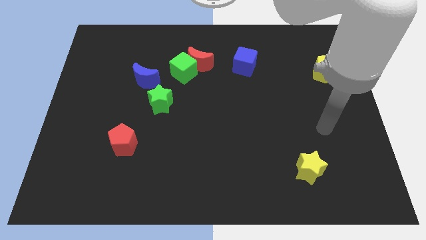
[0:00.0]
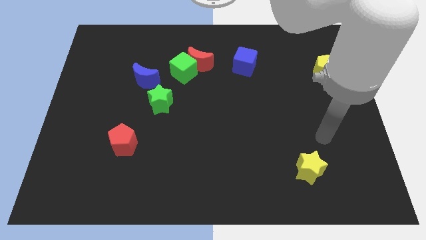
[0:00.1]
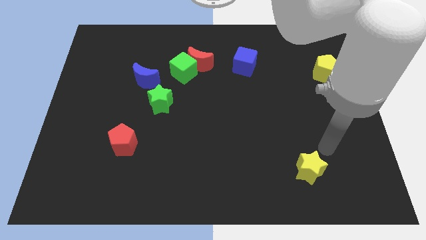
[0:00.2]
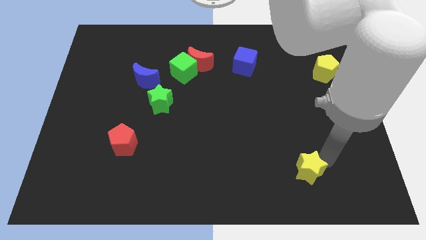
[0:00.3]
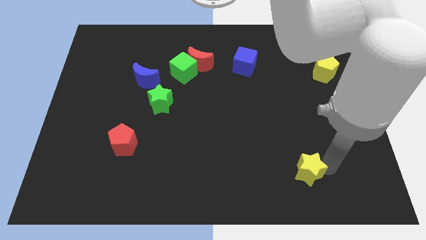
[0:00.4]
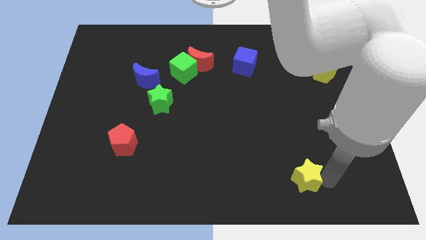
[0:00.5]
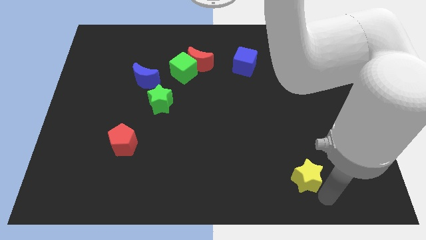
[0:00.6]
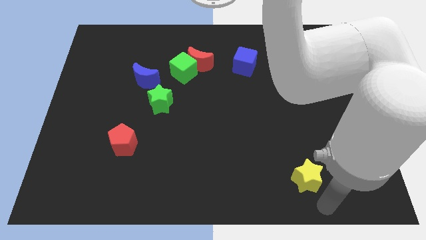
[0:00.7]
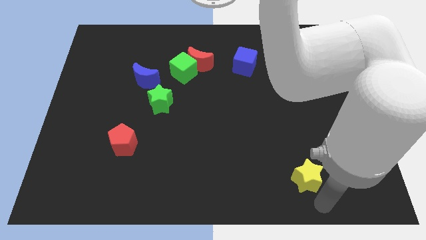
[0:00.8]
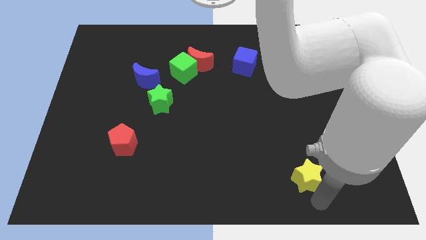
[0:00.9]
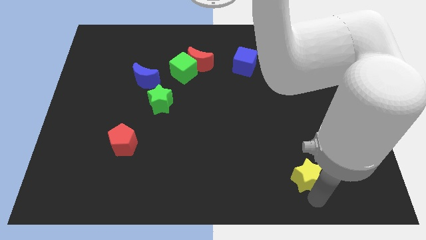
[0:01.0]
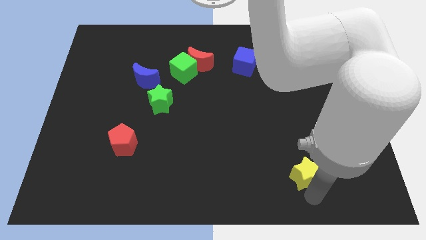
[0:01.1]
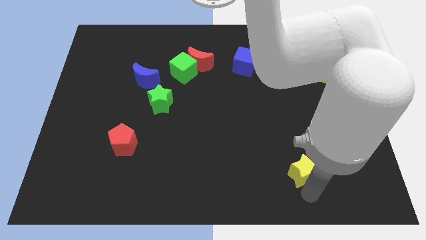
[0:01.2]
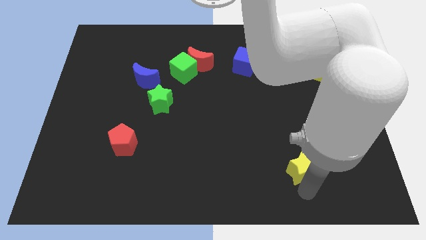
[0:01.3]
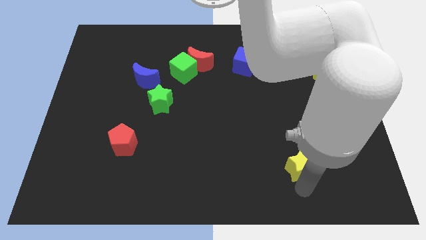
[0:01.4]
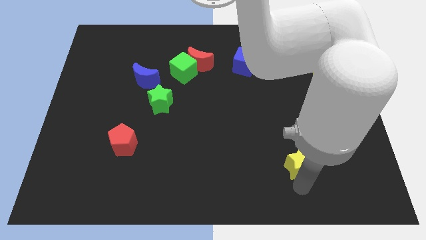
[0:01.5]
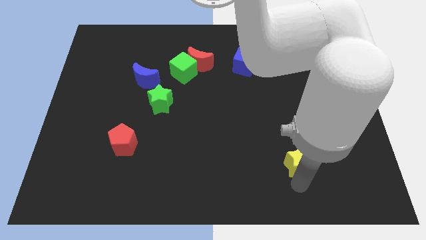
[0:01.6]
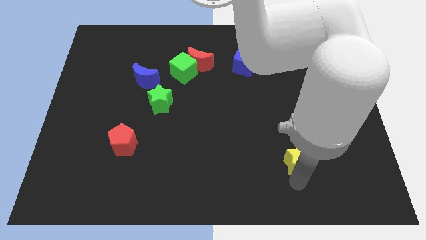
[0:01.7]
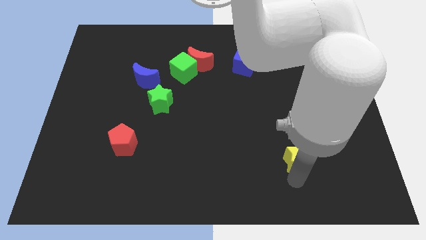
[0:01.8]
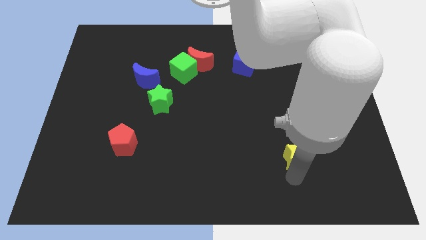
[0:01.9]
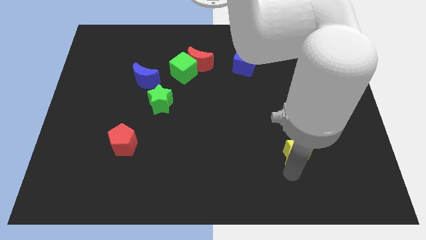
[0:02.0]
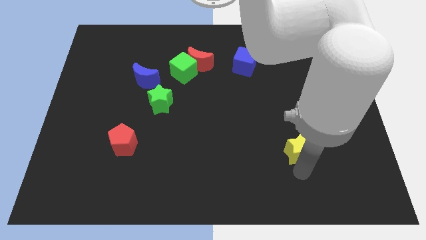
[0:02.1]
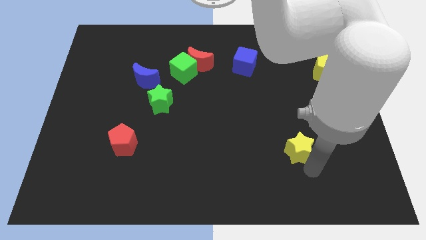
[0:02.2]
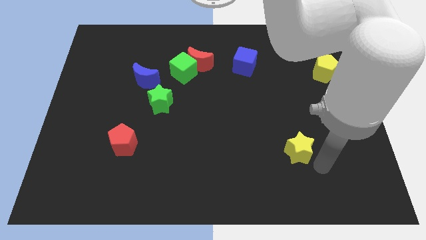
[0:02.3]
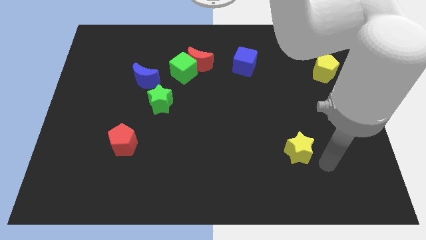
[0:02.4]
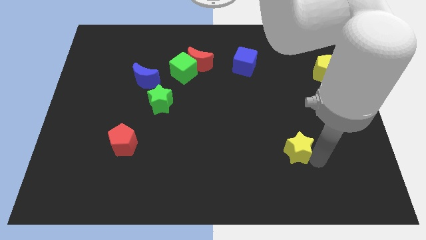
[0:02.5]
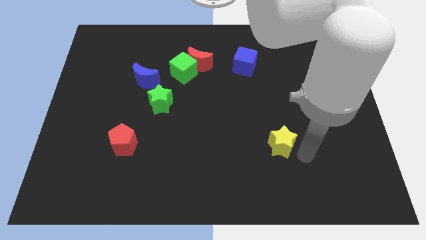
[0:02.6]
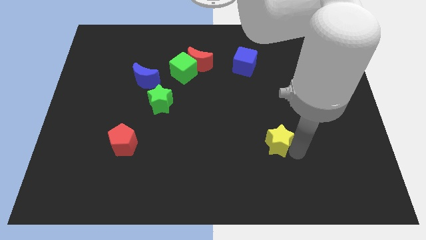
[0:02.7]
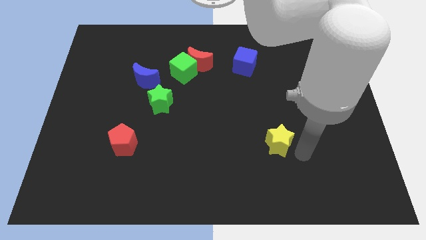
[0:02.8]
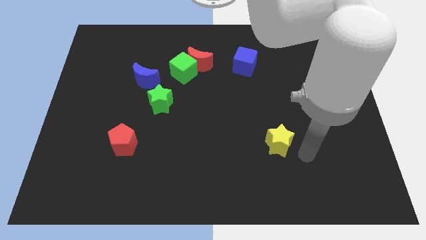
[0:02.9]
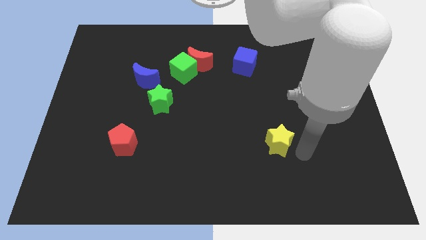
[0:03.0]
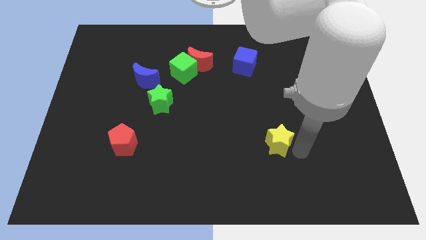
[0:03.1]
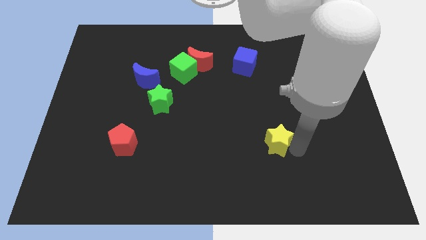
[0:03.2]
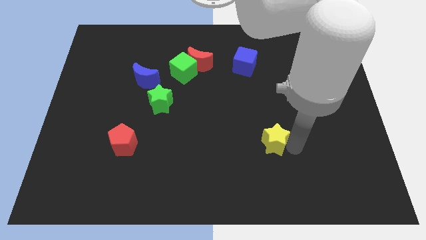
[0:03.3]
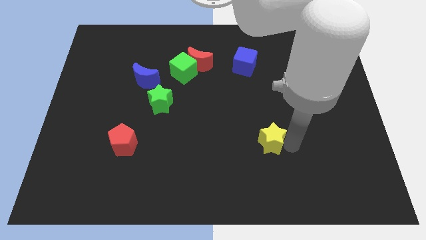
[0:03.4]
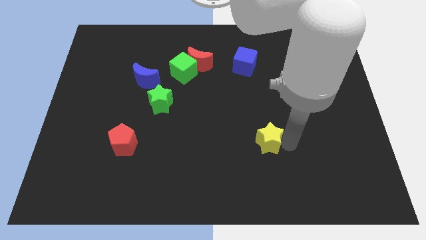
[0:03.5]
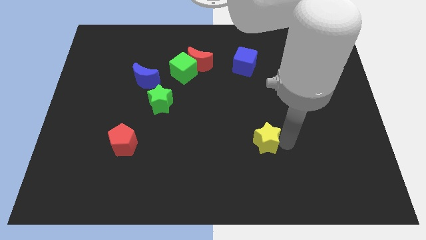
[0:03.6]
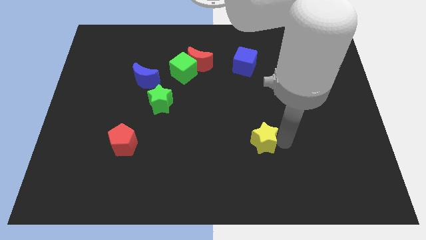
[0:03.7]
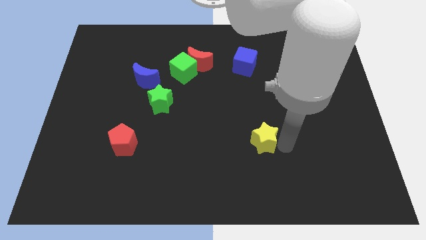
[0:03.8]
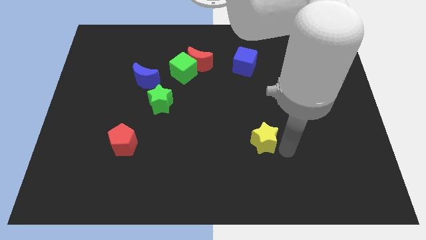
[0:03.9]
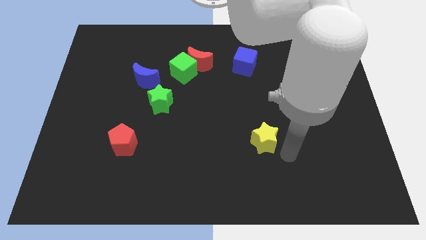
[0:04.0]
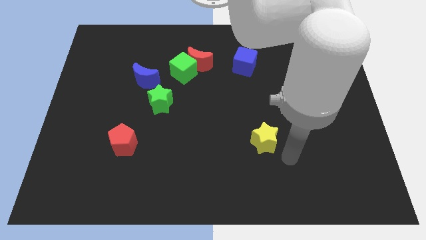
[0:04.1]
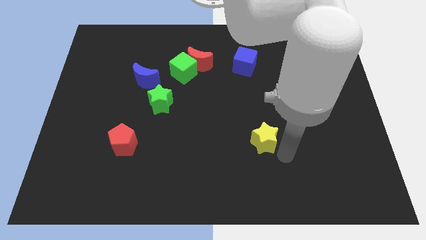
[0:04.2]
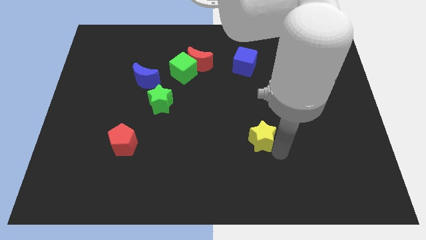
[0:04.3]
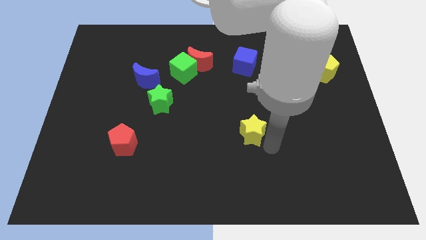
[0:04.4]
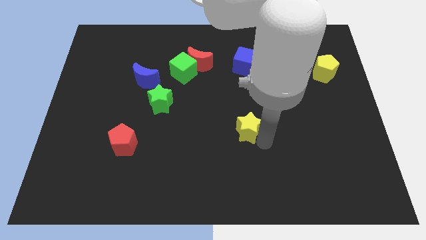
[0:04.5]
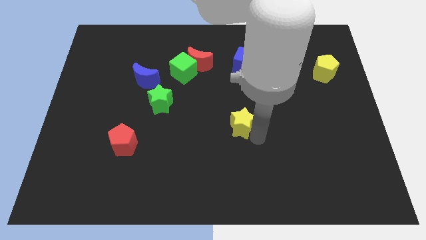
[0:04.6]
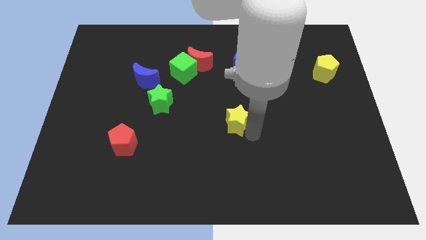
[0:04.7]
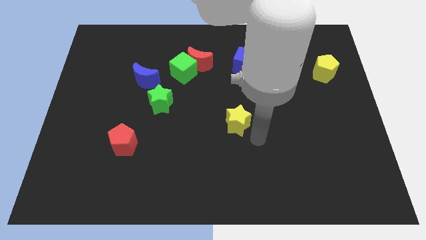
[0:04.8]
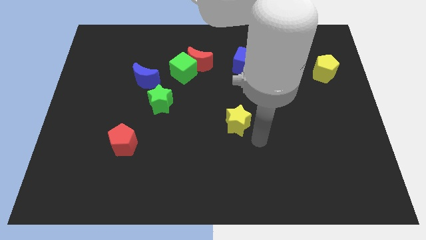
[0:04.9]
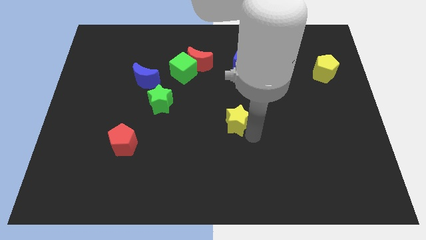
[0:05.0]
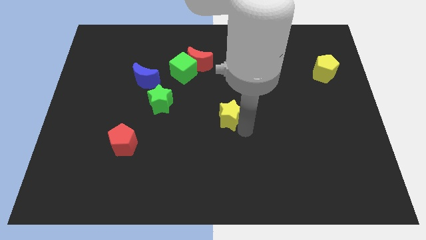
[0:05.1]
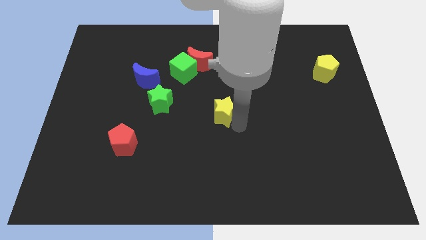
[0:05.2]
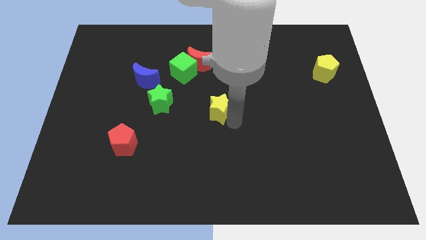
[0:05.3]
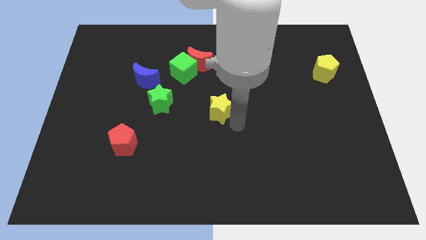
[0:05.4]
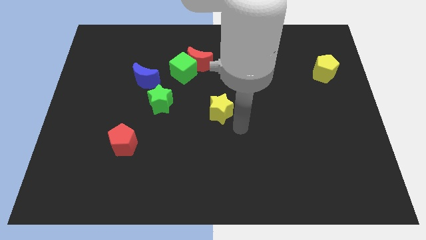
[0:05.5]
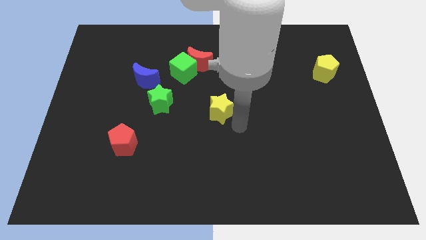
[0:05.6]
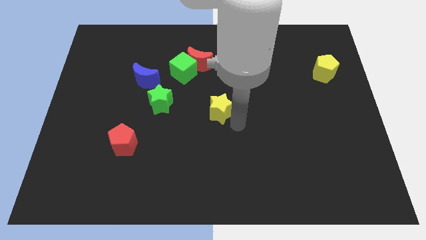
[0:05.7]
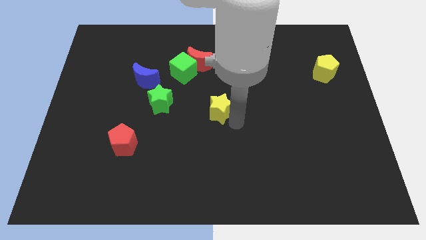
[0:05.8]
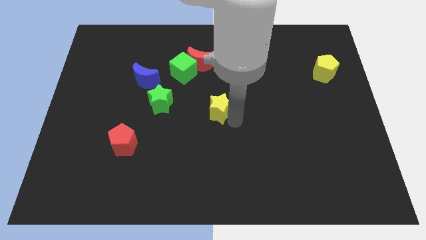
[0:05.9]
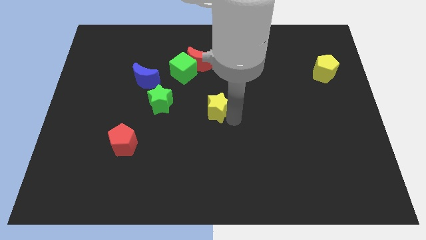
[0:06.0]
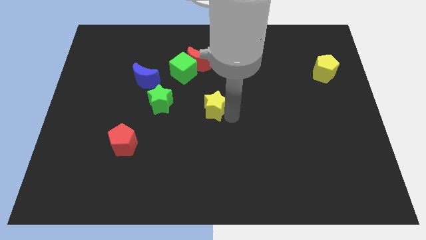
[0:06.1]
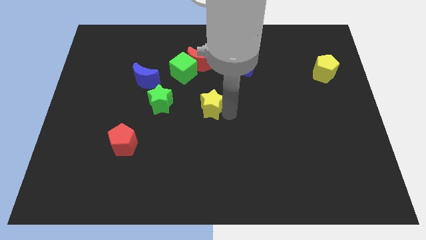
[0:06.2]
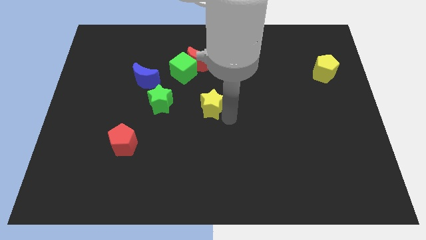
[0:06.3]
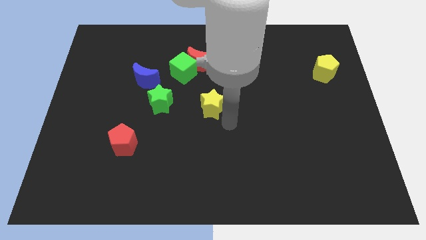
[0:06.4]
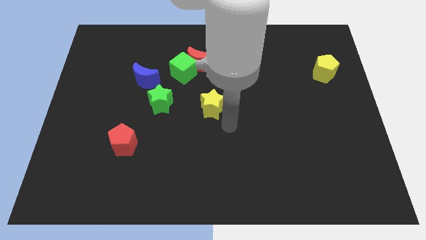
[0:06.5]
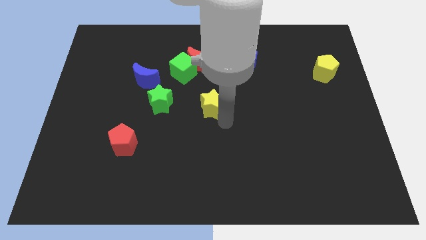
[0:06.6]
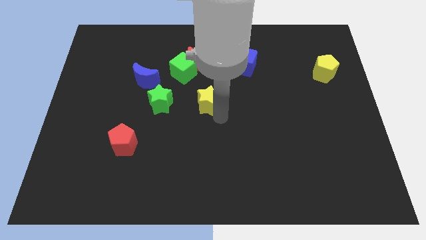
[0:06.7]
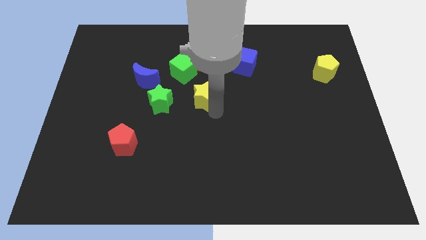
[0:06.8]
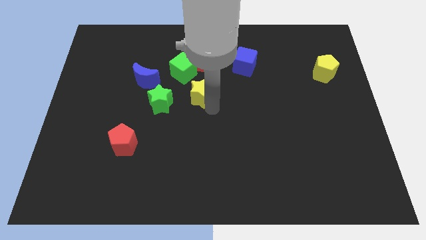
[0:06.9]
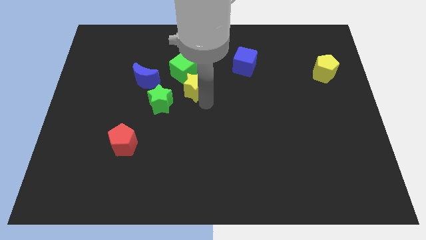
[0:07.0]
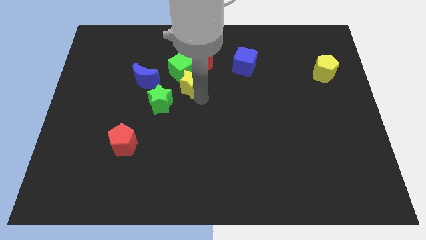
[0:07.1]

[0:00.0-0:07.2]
put the yellow star close to the green cube
